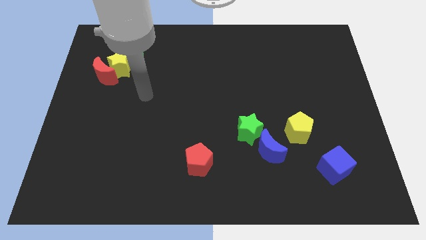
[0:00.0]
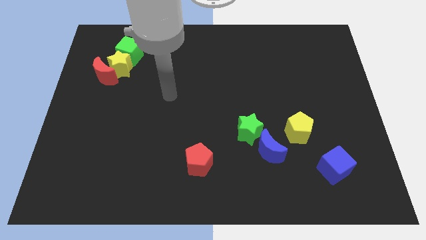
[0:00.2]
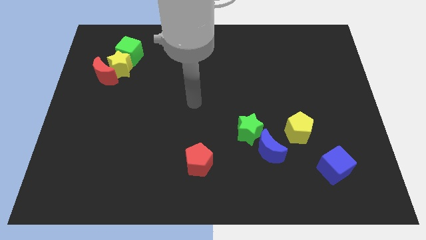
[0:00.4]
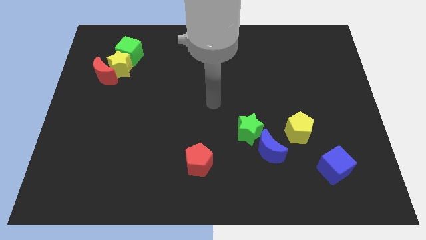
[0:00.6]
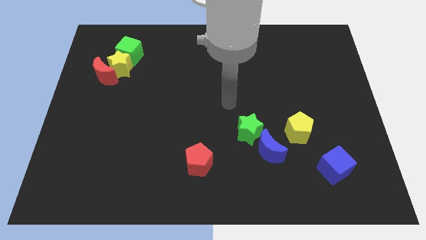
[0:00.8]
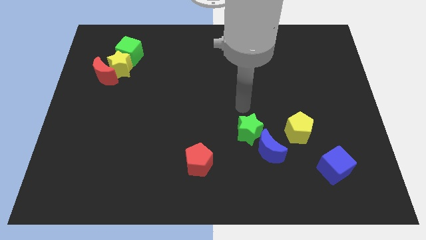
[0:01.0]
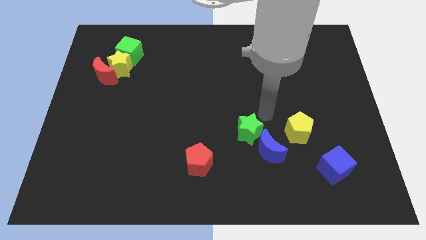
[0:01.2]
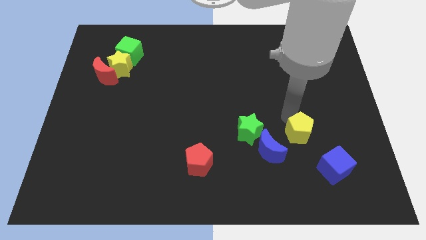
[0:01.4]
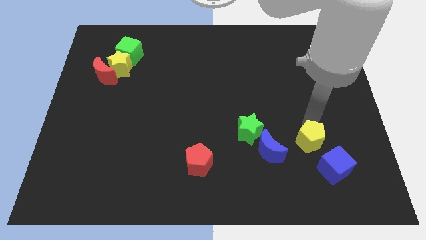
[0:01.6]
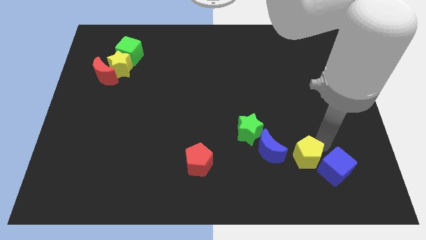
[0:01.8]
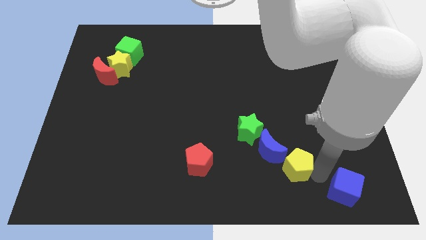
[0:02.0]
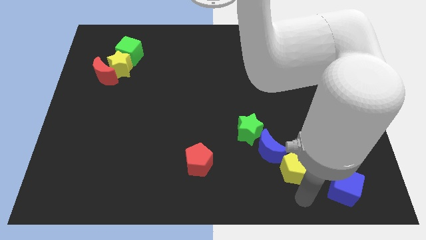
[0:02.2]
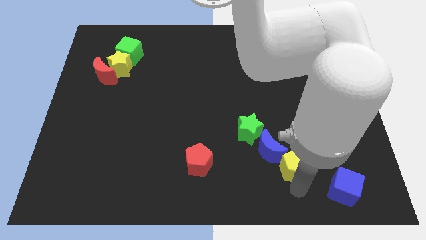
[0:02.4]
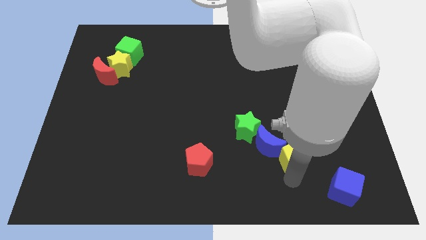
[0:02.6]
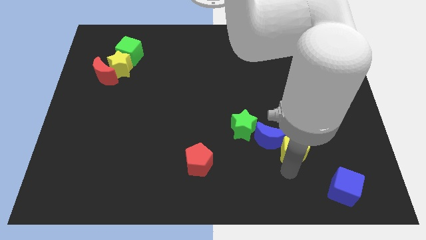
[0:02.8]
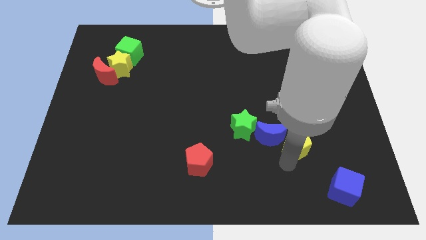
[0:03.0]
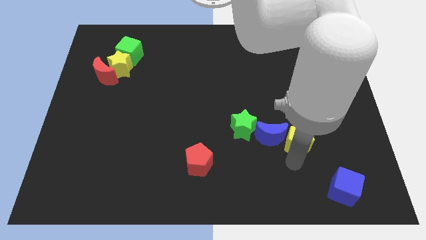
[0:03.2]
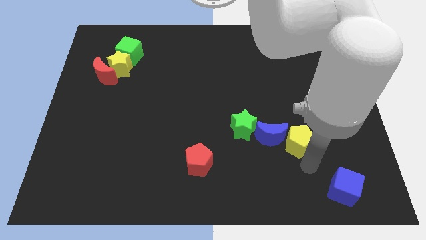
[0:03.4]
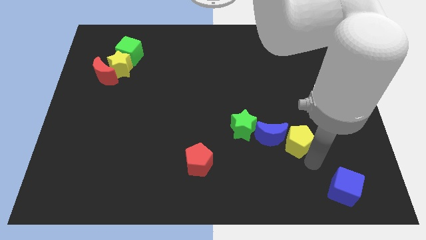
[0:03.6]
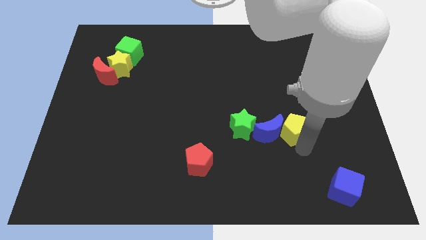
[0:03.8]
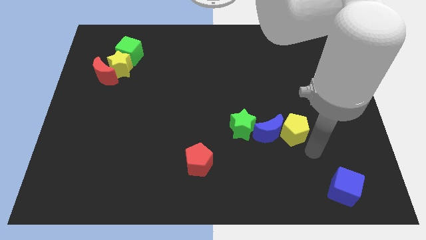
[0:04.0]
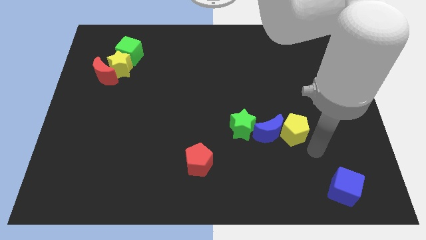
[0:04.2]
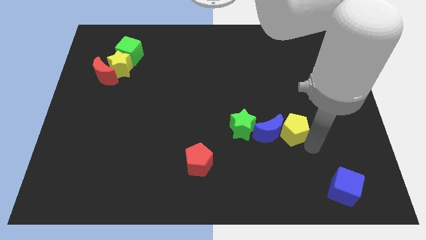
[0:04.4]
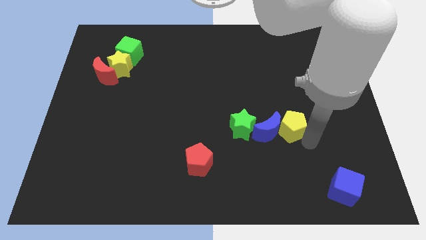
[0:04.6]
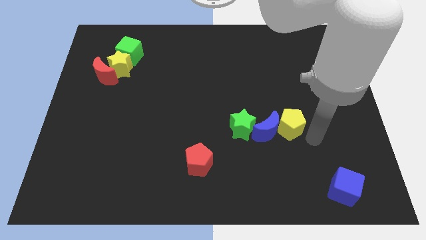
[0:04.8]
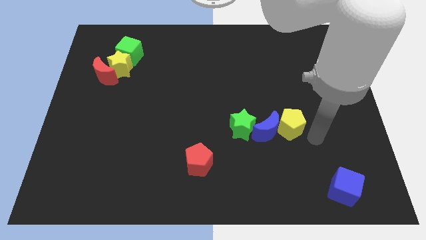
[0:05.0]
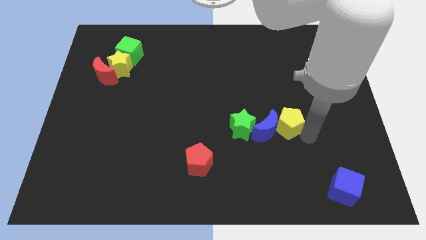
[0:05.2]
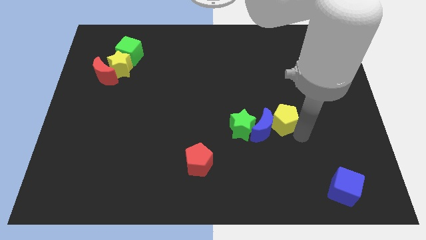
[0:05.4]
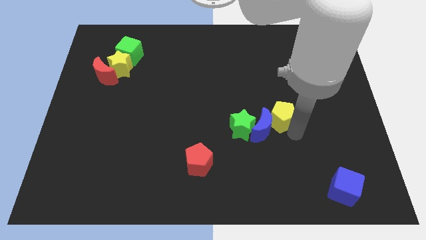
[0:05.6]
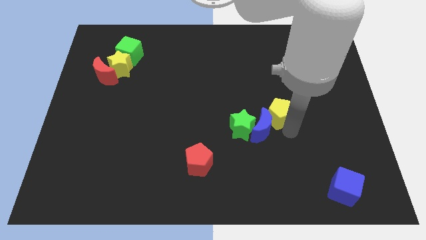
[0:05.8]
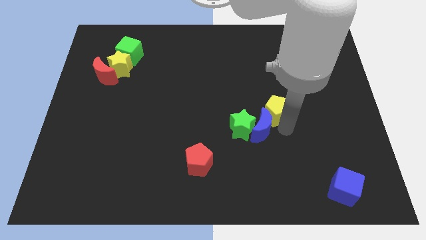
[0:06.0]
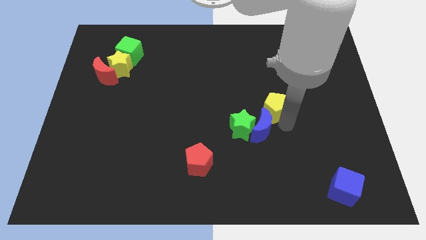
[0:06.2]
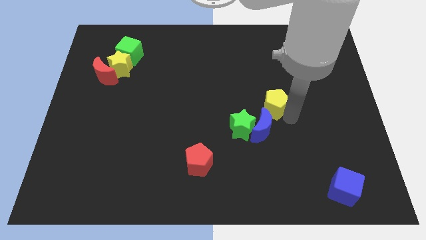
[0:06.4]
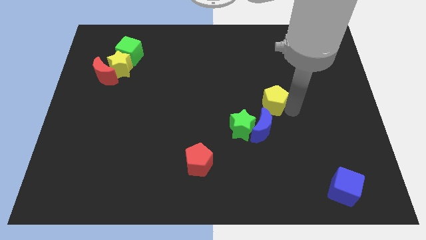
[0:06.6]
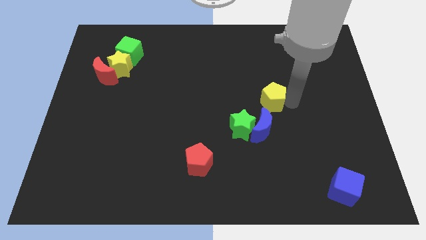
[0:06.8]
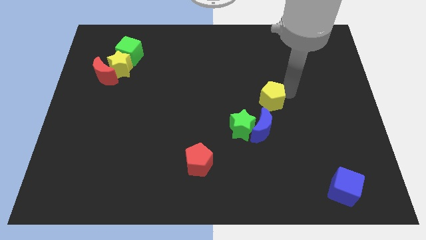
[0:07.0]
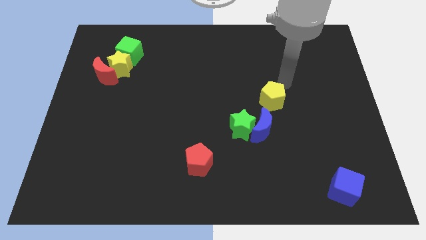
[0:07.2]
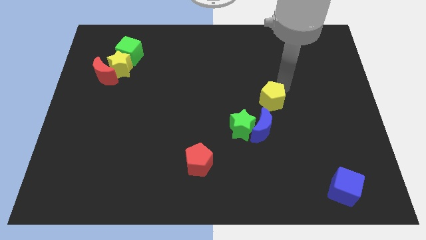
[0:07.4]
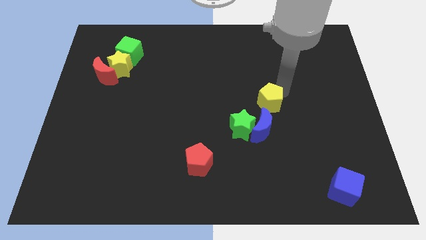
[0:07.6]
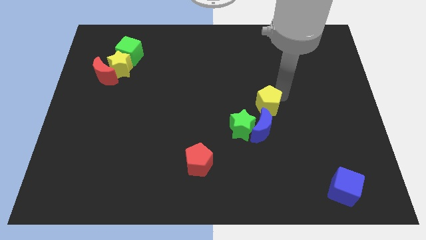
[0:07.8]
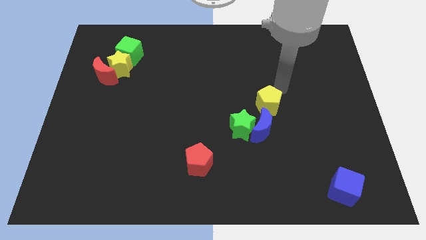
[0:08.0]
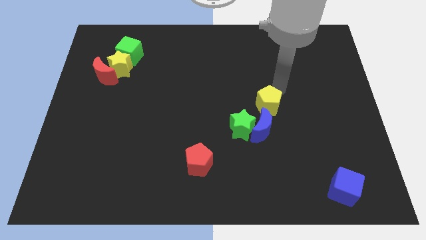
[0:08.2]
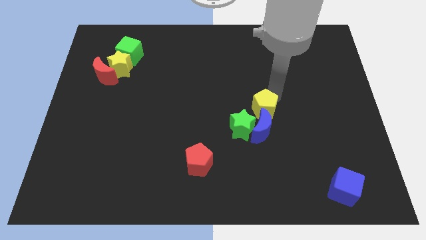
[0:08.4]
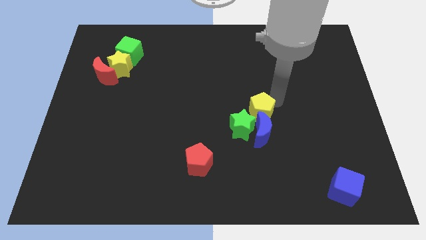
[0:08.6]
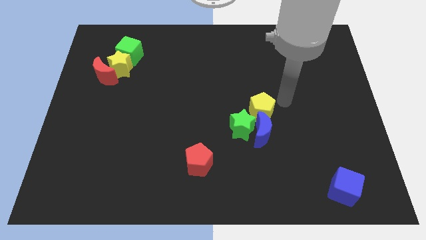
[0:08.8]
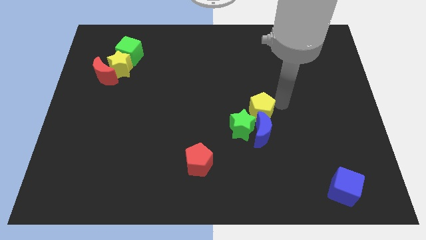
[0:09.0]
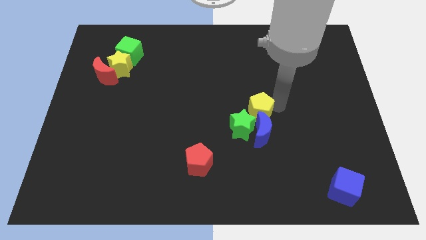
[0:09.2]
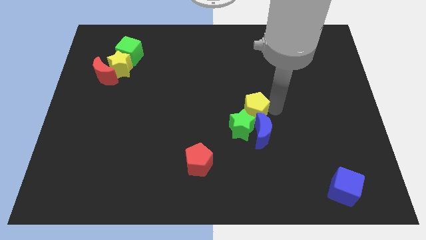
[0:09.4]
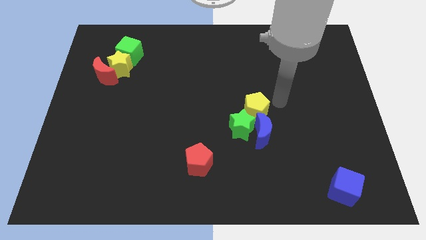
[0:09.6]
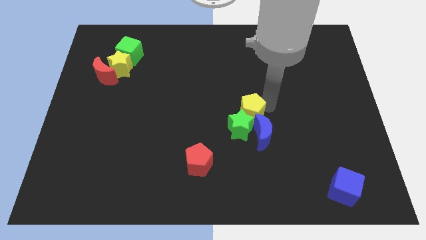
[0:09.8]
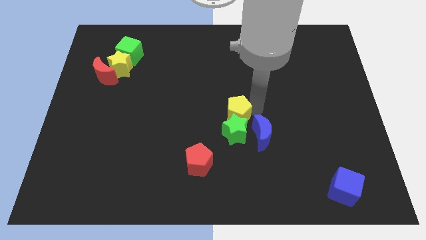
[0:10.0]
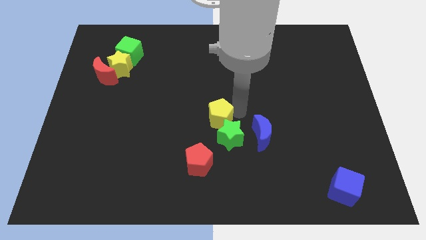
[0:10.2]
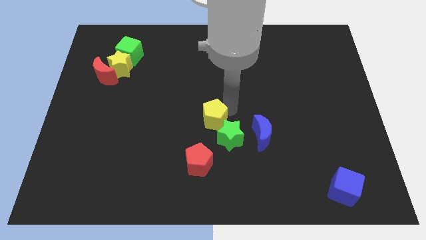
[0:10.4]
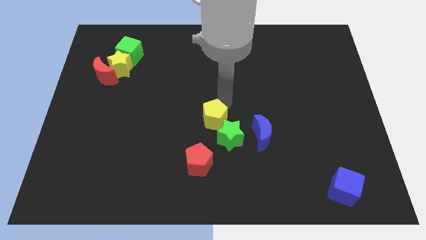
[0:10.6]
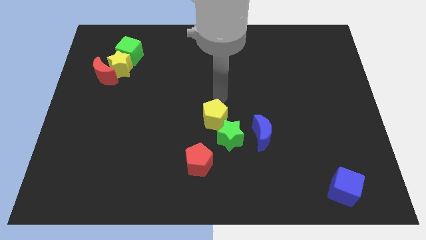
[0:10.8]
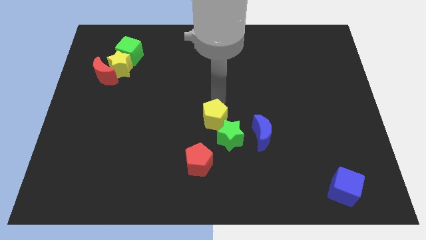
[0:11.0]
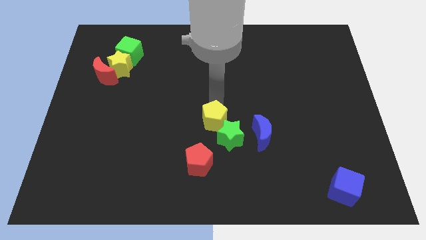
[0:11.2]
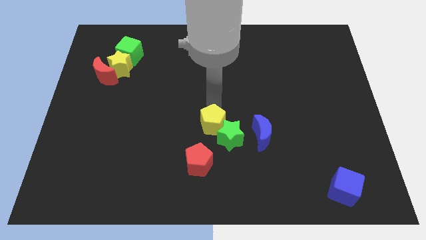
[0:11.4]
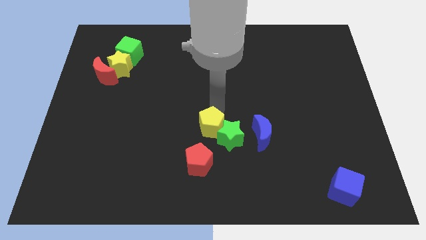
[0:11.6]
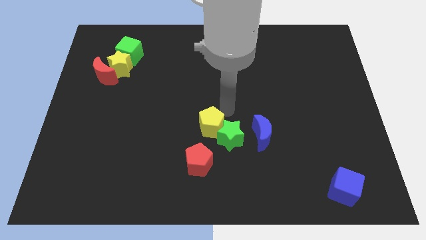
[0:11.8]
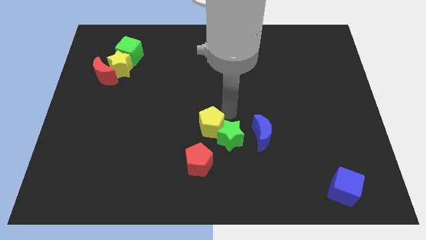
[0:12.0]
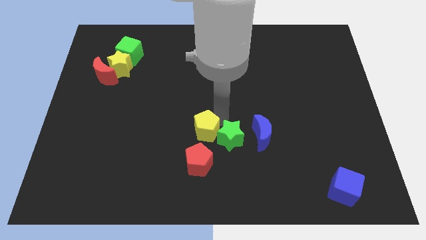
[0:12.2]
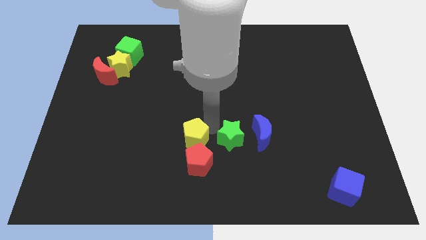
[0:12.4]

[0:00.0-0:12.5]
slide the yellow pentagon diagonally up and to the left of the red pentagon

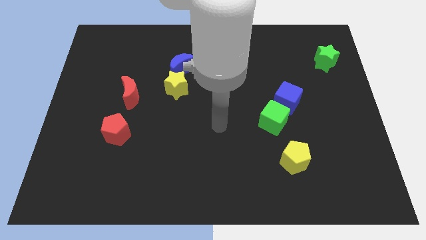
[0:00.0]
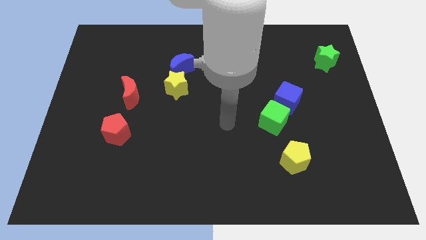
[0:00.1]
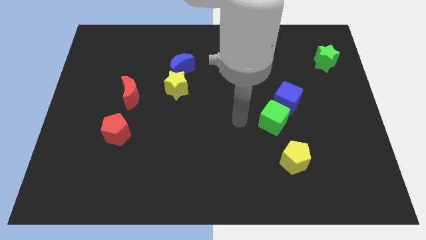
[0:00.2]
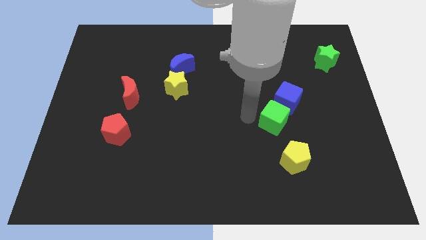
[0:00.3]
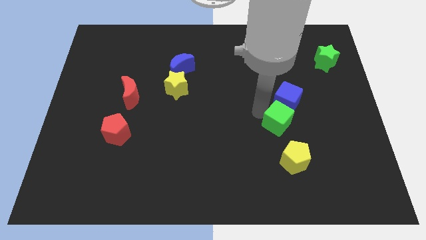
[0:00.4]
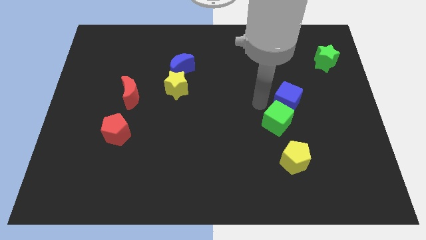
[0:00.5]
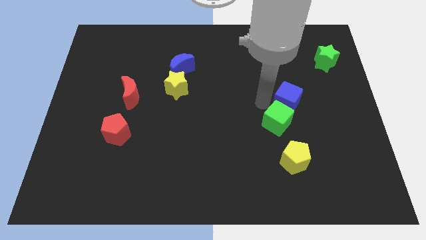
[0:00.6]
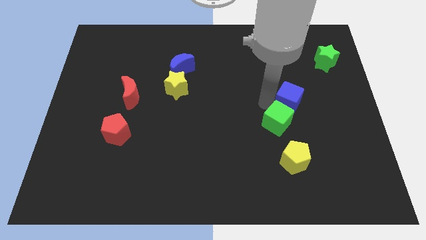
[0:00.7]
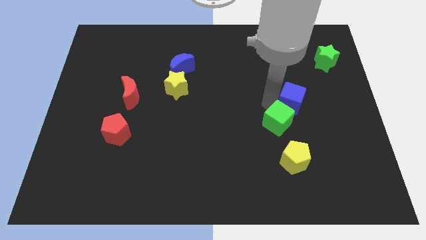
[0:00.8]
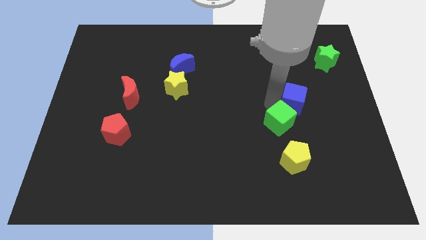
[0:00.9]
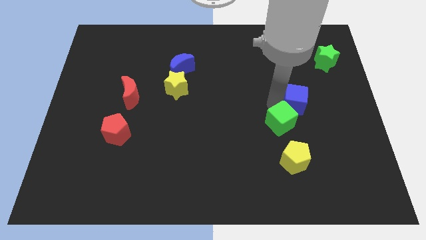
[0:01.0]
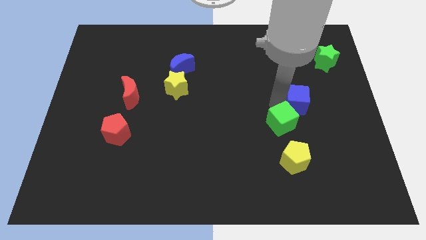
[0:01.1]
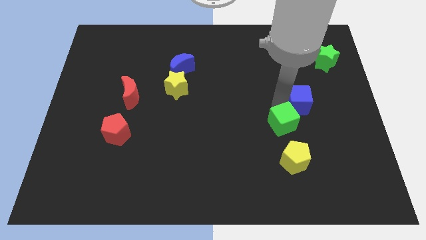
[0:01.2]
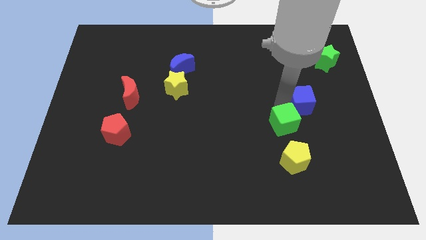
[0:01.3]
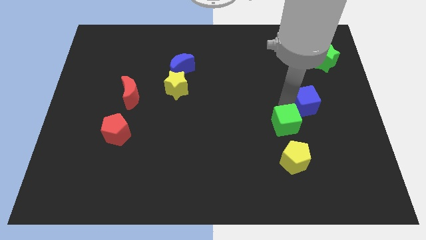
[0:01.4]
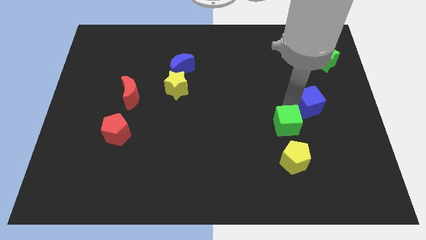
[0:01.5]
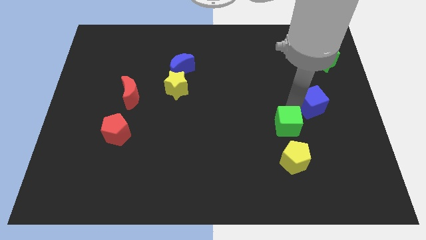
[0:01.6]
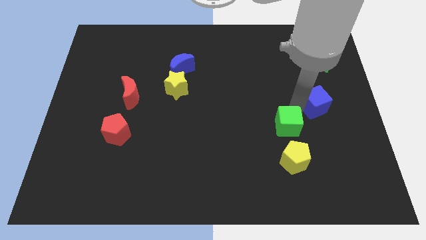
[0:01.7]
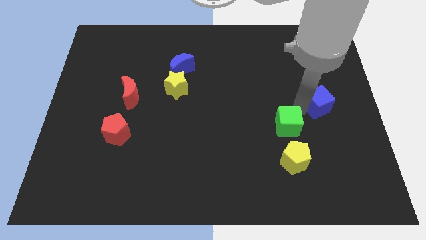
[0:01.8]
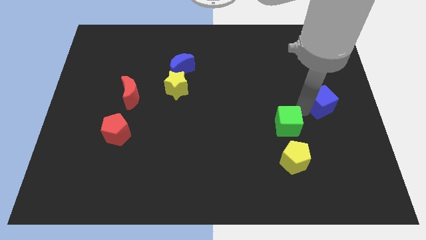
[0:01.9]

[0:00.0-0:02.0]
slide the blue cube below the green star
